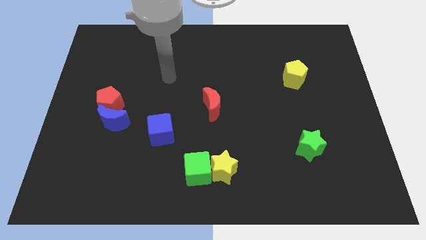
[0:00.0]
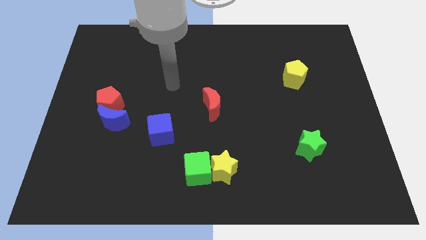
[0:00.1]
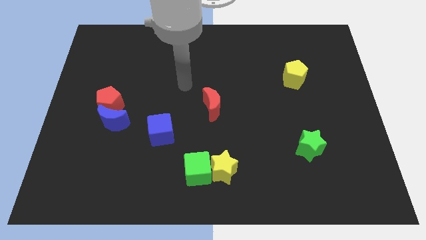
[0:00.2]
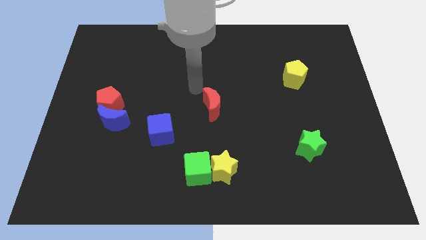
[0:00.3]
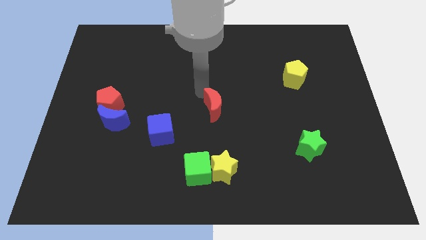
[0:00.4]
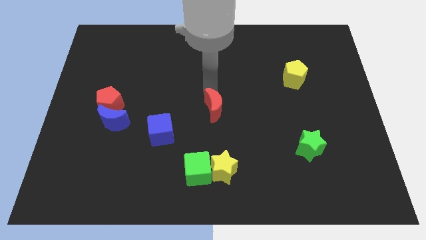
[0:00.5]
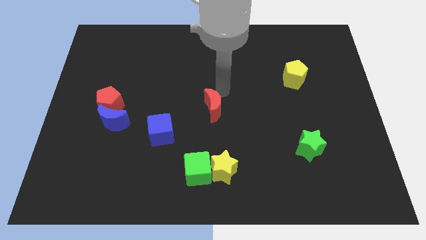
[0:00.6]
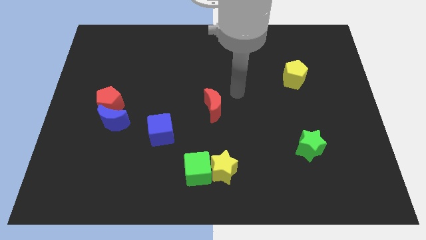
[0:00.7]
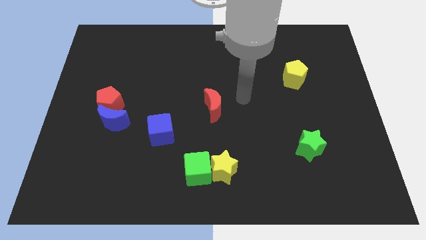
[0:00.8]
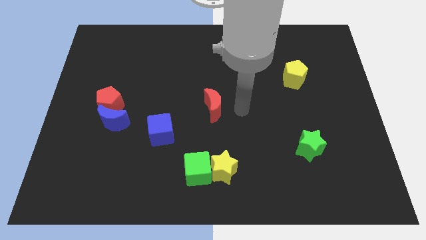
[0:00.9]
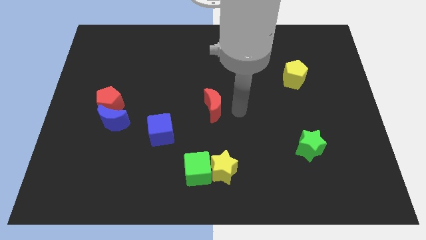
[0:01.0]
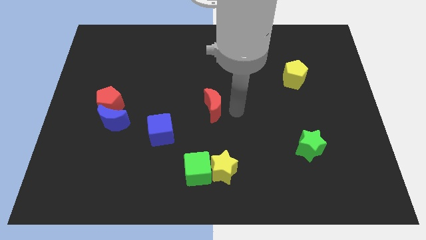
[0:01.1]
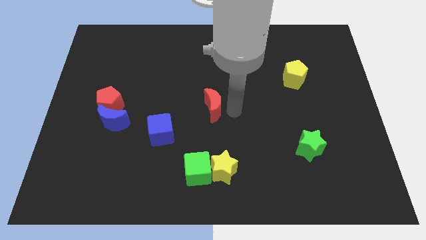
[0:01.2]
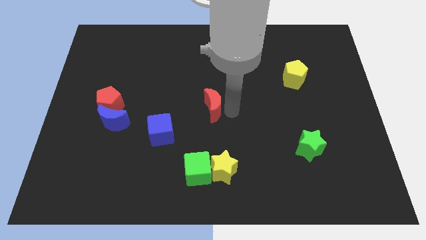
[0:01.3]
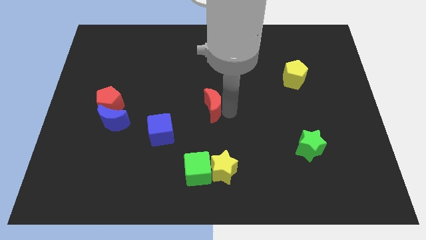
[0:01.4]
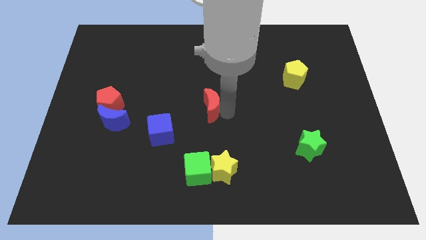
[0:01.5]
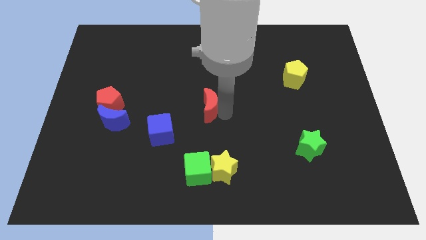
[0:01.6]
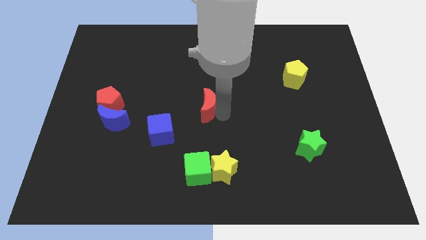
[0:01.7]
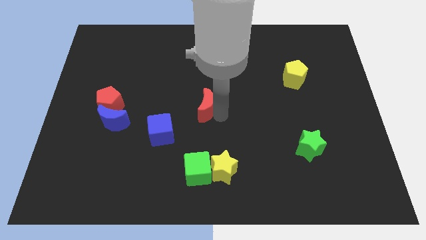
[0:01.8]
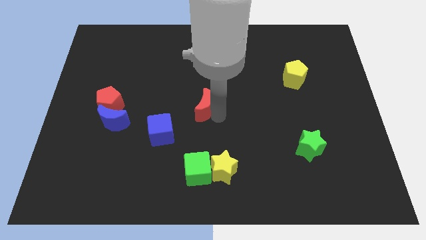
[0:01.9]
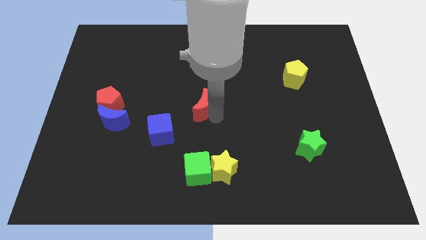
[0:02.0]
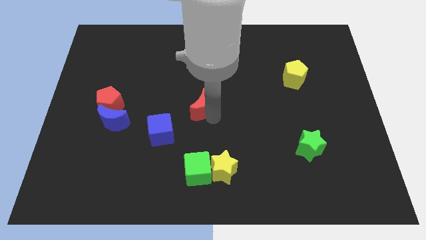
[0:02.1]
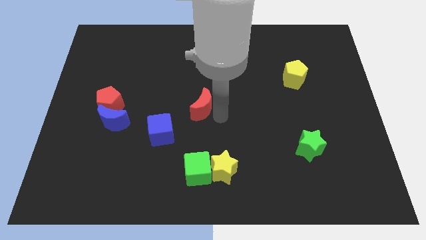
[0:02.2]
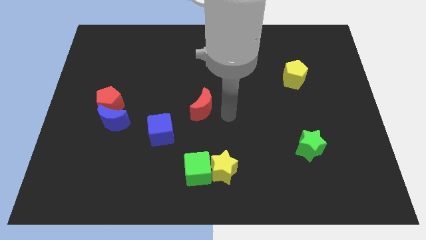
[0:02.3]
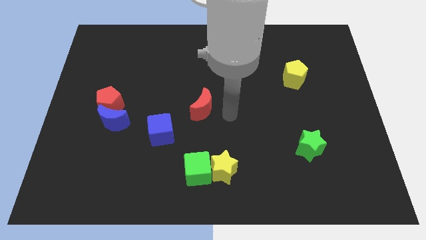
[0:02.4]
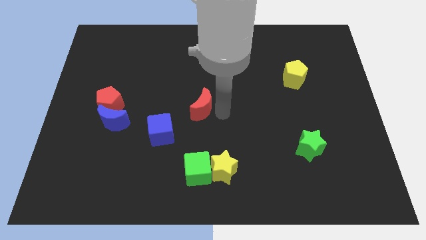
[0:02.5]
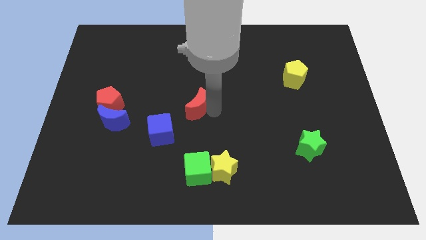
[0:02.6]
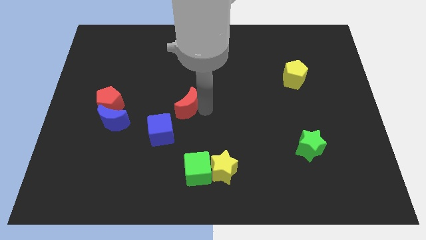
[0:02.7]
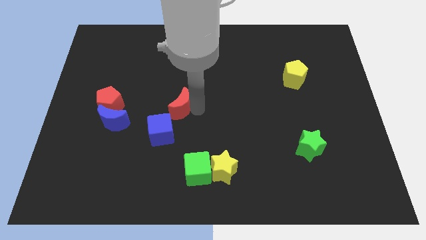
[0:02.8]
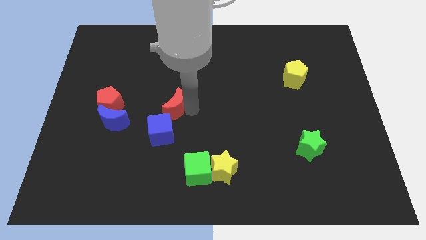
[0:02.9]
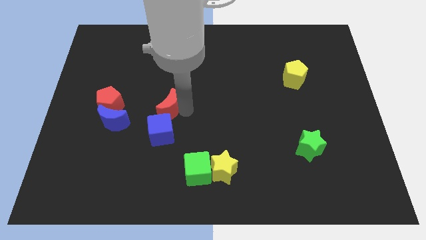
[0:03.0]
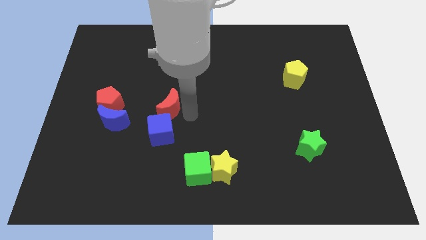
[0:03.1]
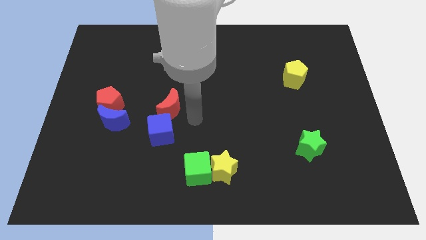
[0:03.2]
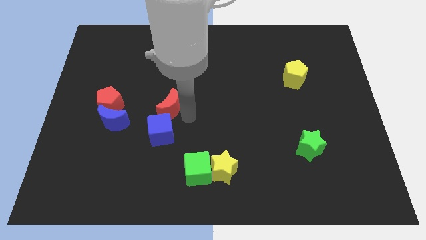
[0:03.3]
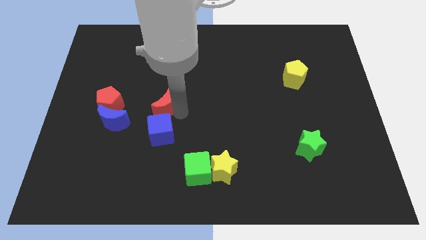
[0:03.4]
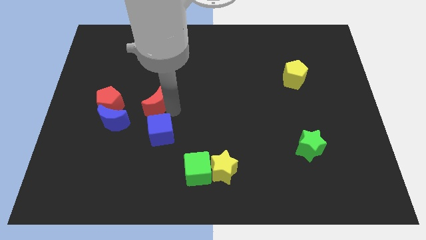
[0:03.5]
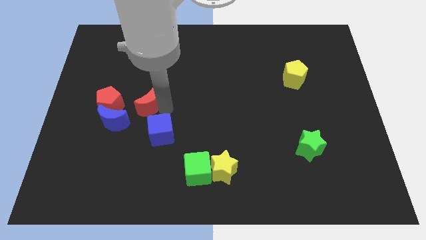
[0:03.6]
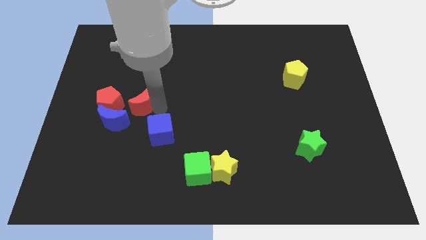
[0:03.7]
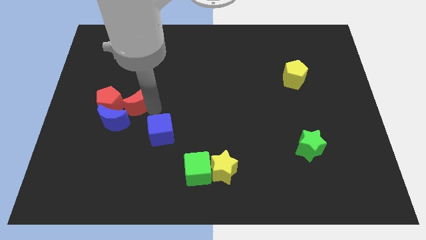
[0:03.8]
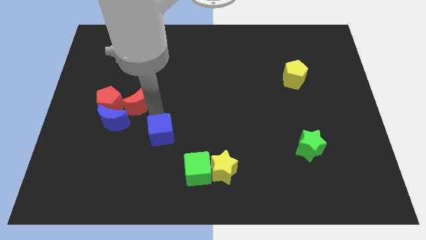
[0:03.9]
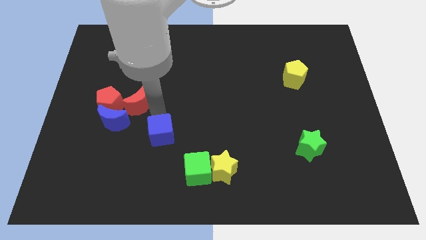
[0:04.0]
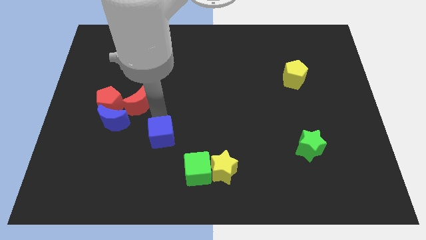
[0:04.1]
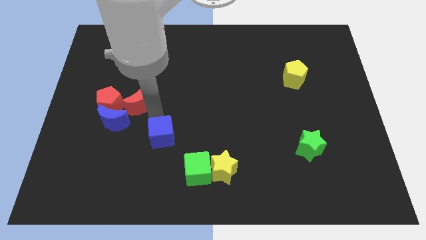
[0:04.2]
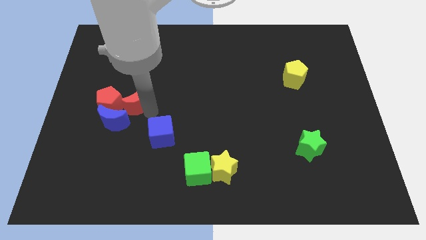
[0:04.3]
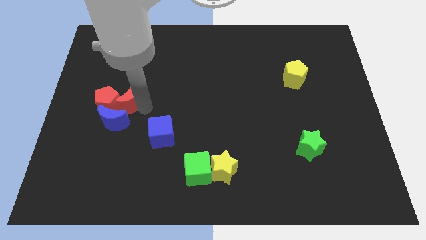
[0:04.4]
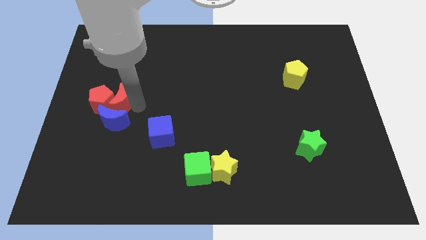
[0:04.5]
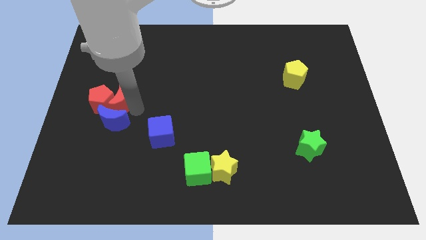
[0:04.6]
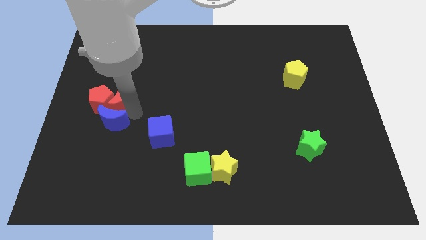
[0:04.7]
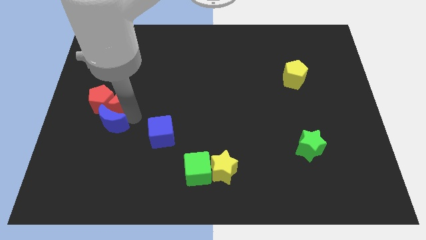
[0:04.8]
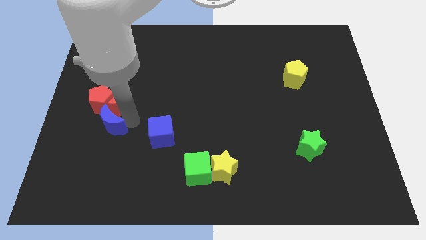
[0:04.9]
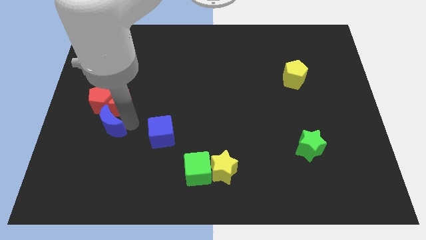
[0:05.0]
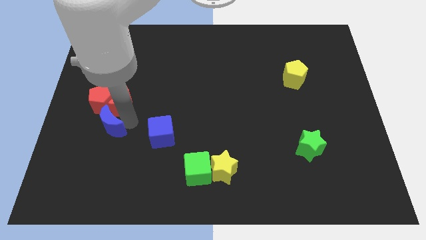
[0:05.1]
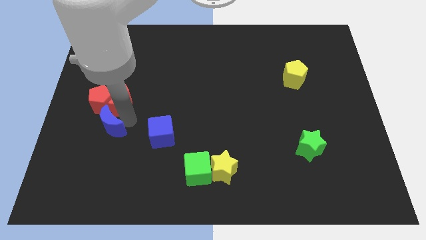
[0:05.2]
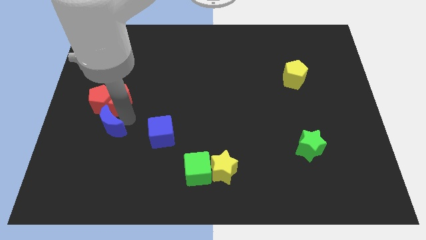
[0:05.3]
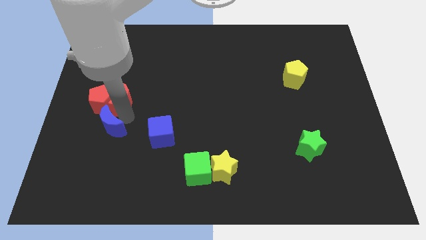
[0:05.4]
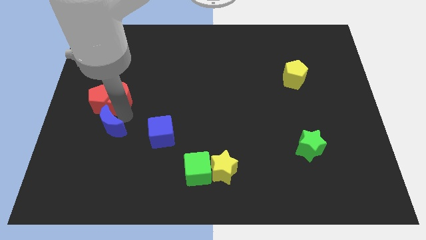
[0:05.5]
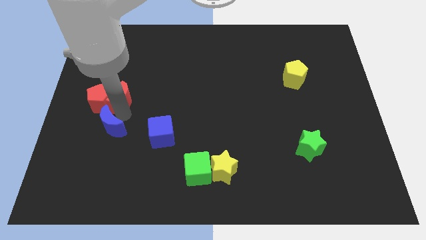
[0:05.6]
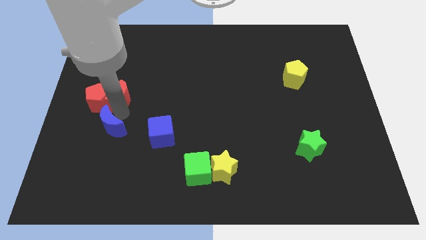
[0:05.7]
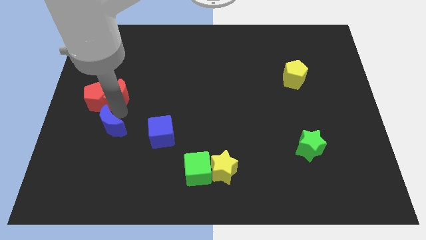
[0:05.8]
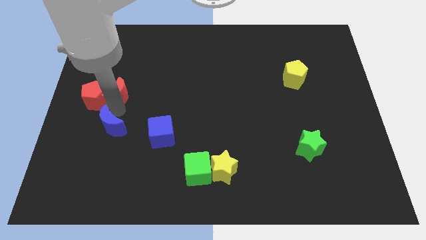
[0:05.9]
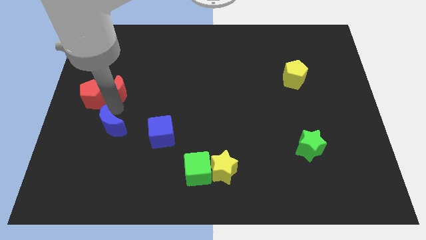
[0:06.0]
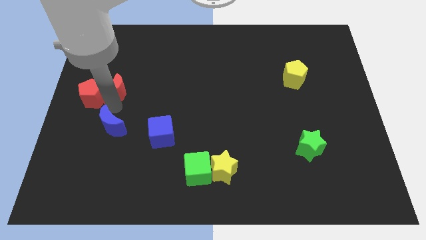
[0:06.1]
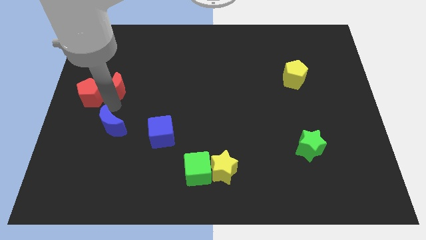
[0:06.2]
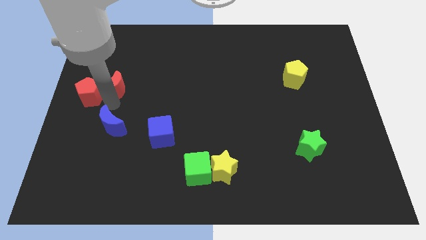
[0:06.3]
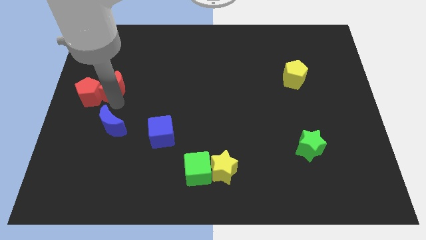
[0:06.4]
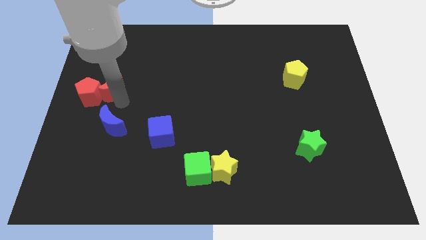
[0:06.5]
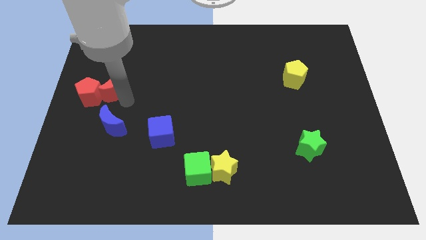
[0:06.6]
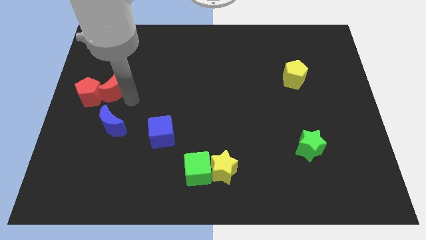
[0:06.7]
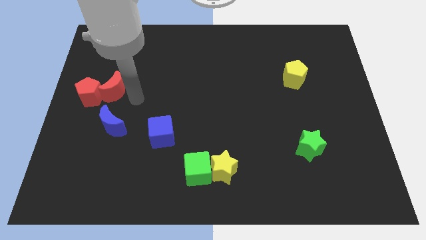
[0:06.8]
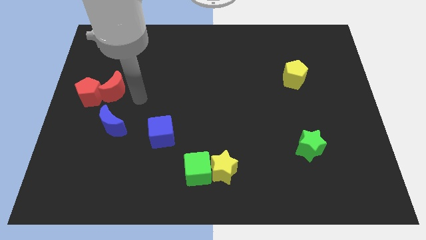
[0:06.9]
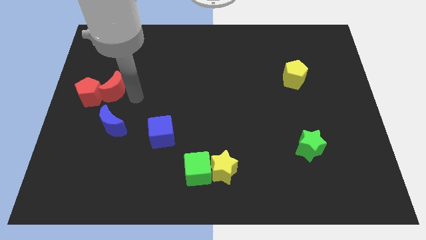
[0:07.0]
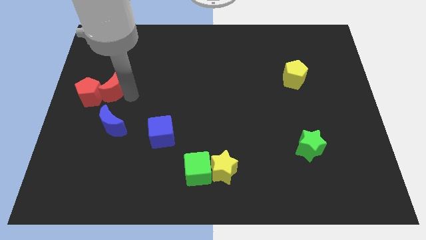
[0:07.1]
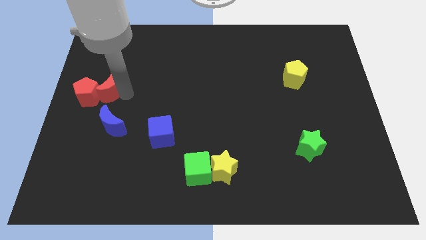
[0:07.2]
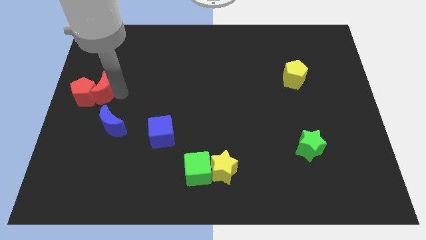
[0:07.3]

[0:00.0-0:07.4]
slide the red moon to the center left
